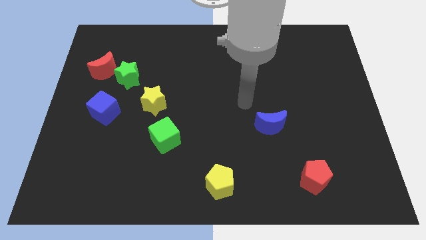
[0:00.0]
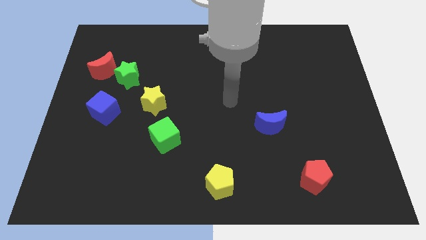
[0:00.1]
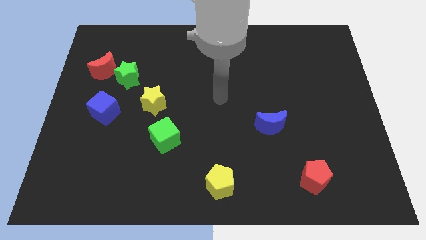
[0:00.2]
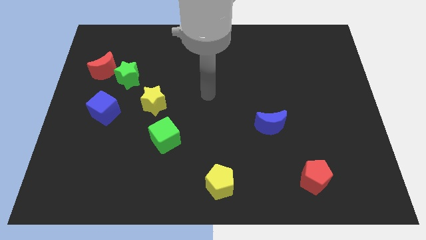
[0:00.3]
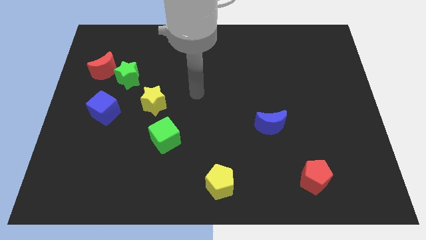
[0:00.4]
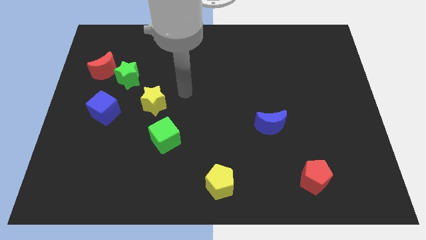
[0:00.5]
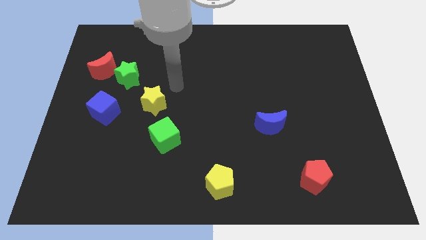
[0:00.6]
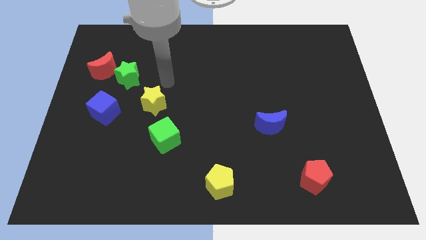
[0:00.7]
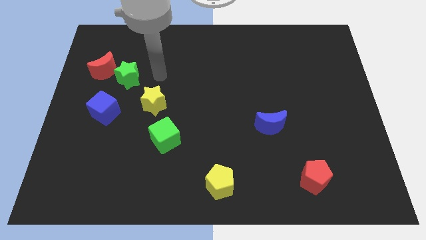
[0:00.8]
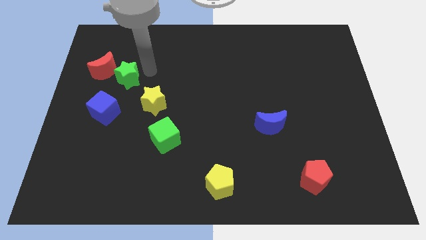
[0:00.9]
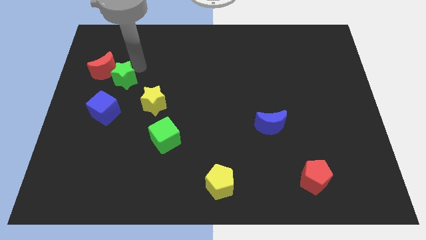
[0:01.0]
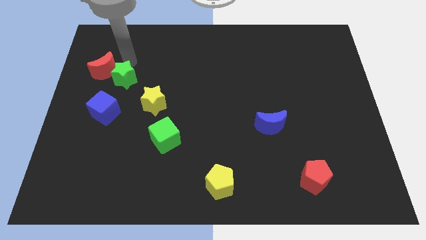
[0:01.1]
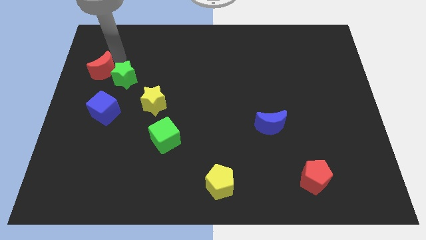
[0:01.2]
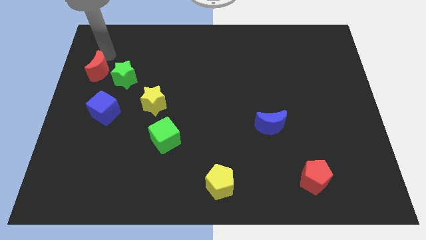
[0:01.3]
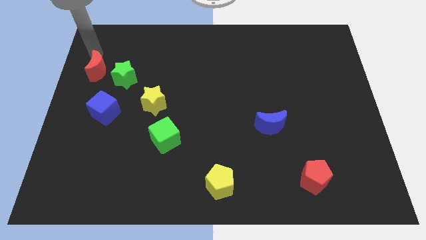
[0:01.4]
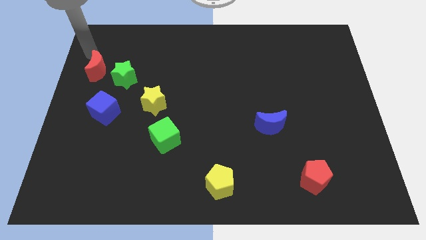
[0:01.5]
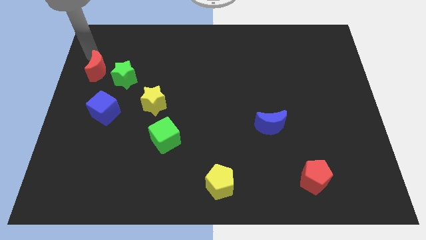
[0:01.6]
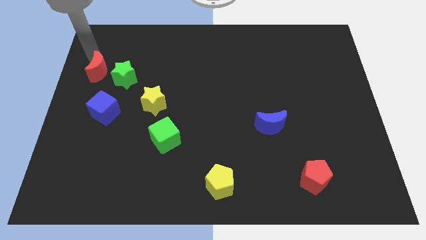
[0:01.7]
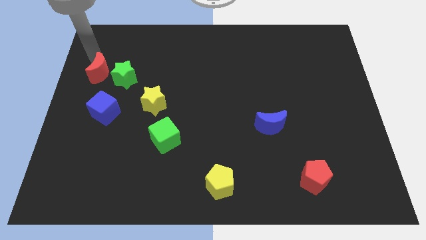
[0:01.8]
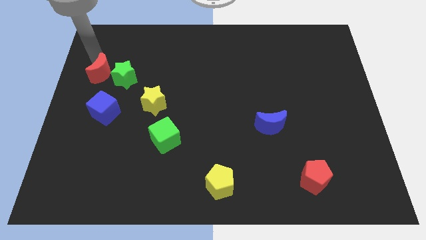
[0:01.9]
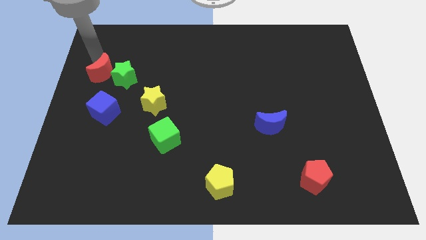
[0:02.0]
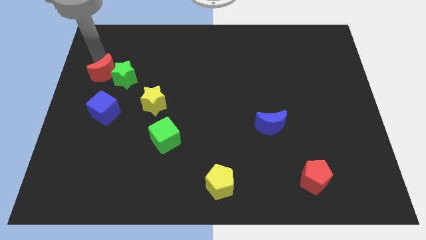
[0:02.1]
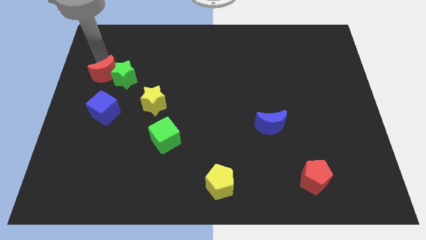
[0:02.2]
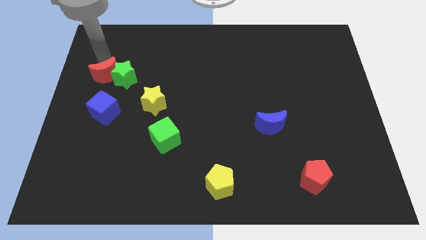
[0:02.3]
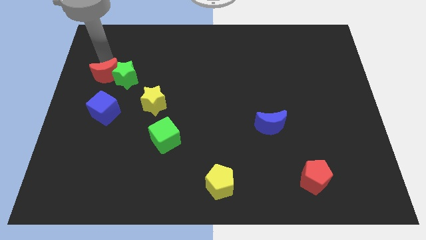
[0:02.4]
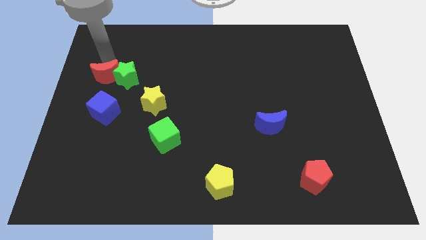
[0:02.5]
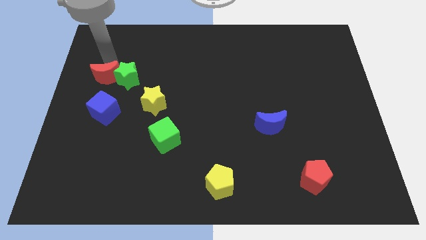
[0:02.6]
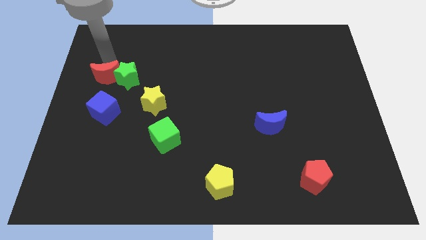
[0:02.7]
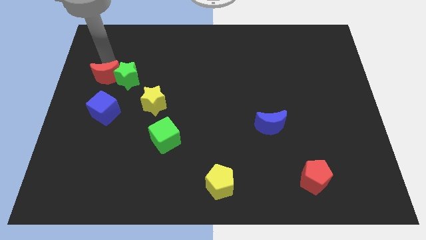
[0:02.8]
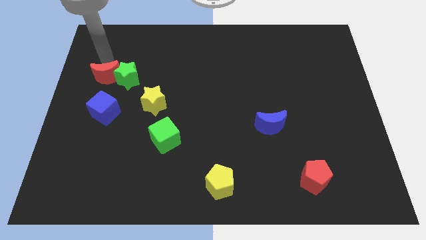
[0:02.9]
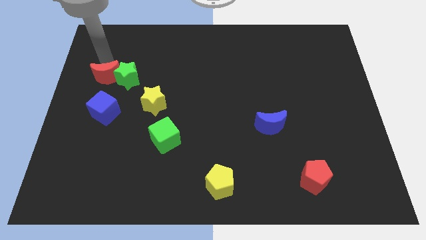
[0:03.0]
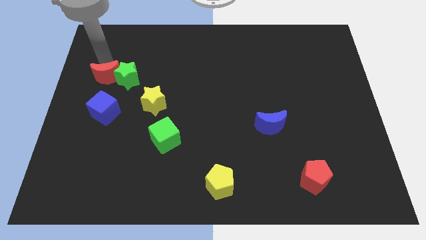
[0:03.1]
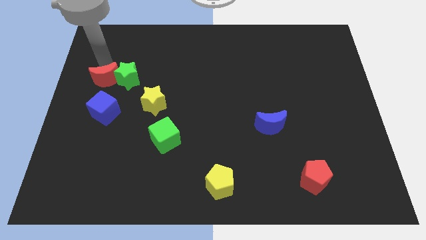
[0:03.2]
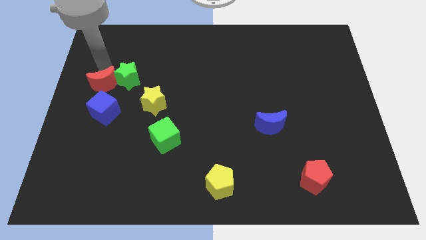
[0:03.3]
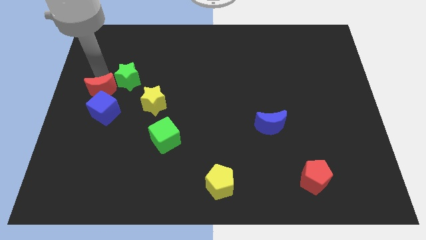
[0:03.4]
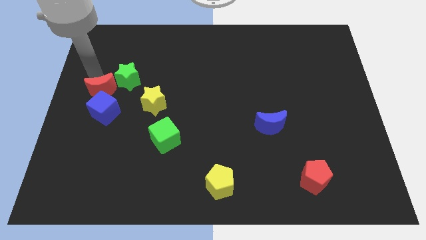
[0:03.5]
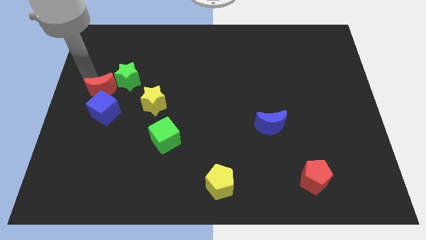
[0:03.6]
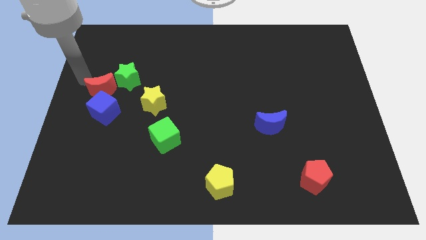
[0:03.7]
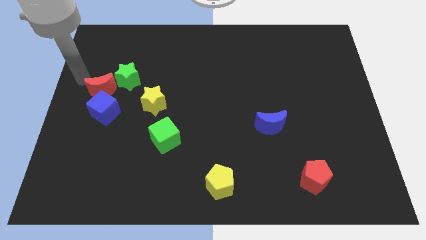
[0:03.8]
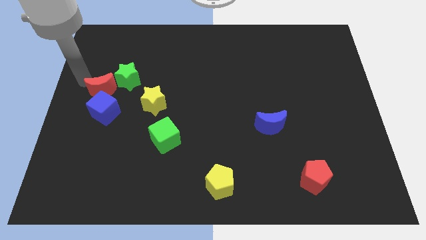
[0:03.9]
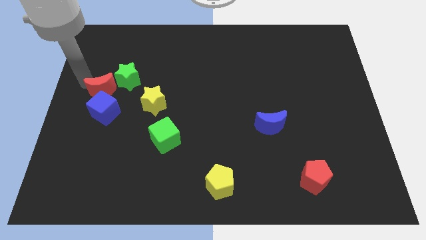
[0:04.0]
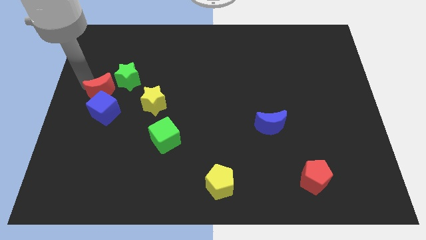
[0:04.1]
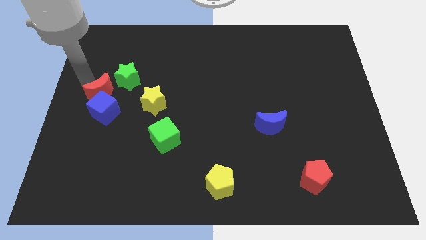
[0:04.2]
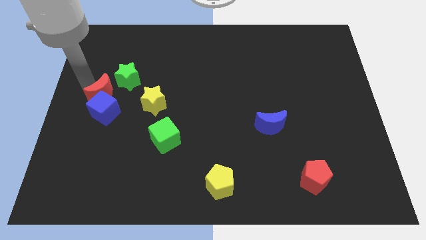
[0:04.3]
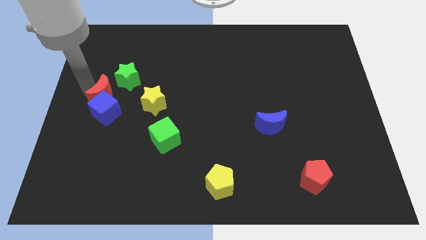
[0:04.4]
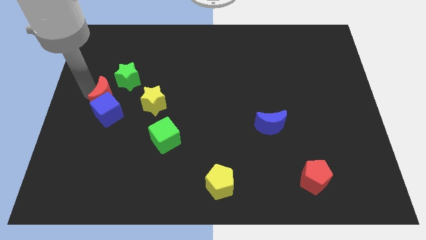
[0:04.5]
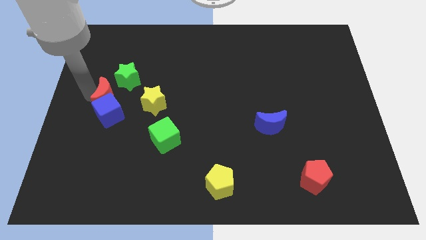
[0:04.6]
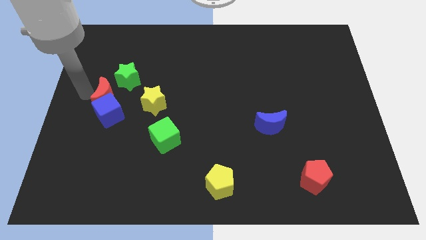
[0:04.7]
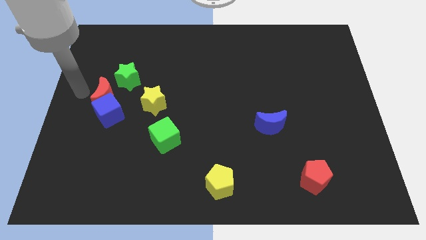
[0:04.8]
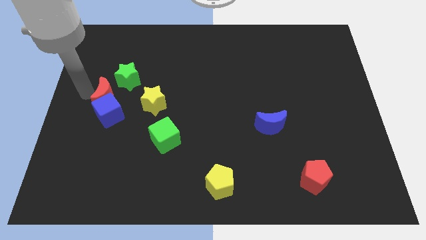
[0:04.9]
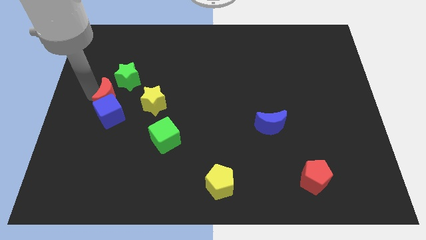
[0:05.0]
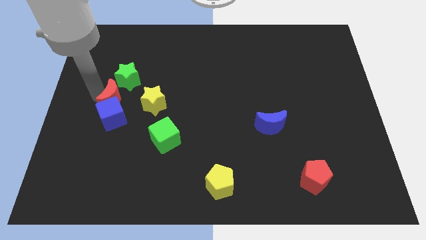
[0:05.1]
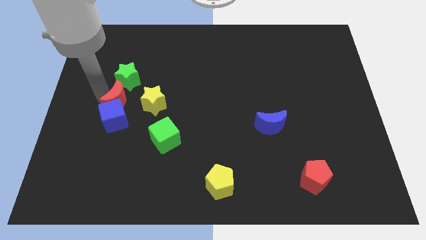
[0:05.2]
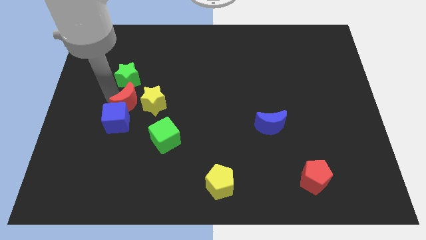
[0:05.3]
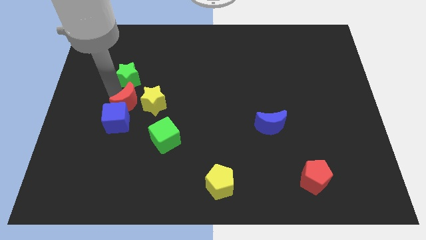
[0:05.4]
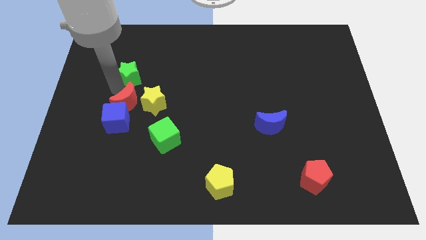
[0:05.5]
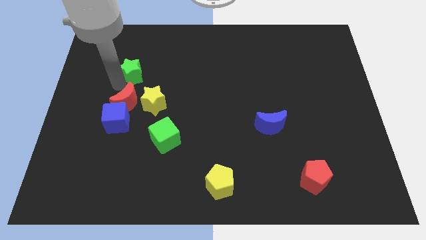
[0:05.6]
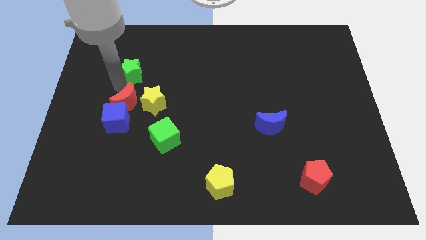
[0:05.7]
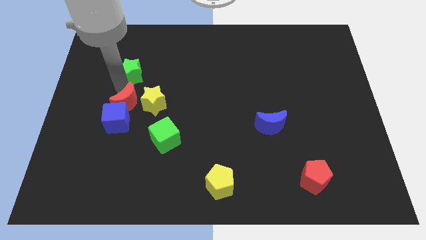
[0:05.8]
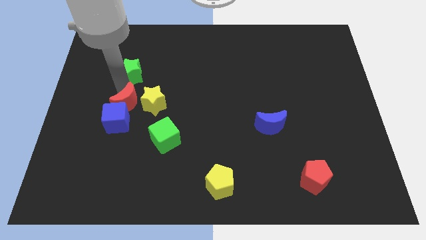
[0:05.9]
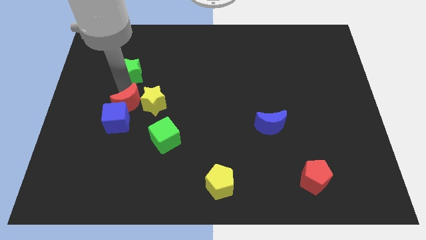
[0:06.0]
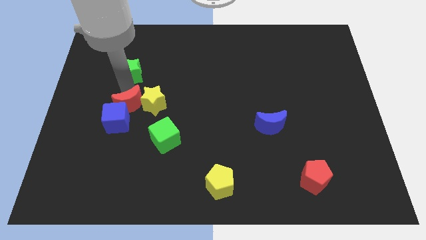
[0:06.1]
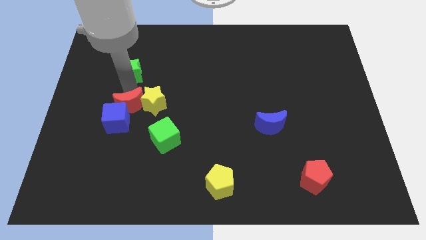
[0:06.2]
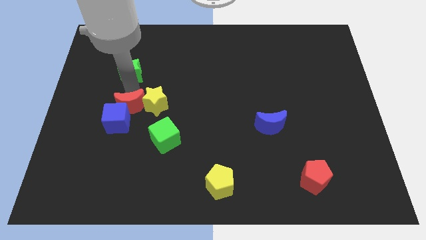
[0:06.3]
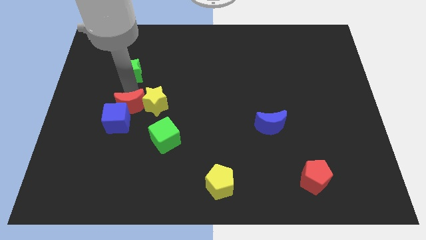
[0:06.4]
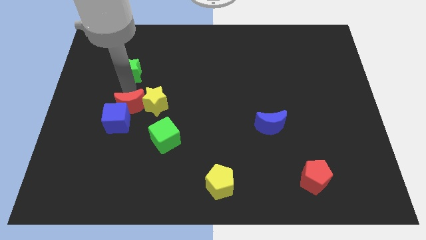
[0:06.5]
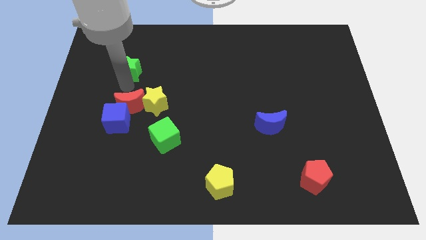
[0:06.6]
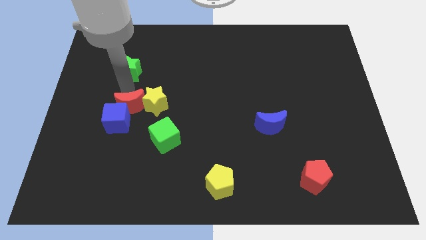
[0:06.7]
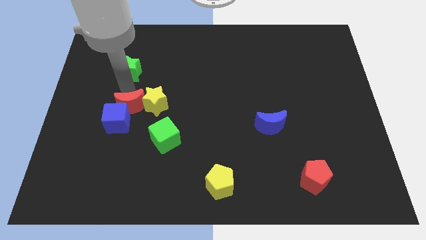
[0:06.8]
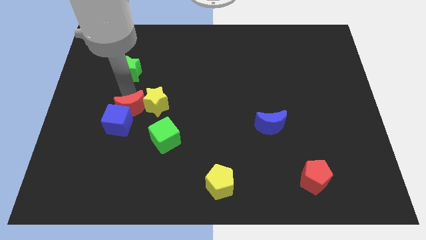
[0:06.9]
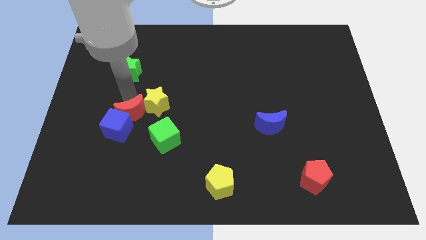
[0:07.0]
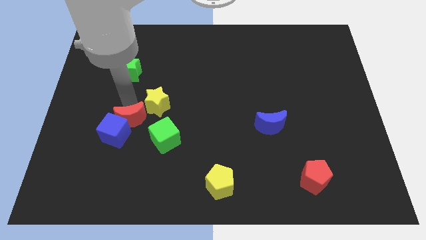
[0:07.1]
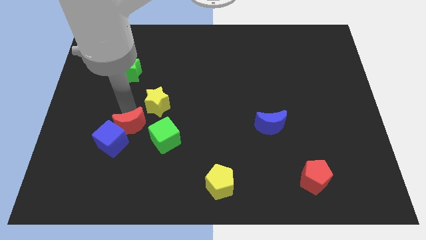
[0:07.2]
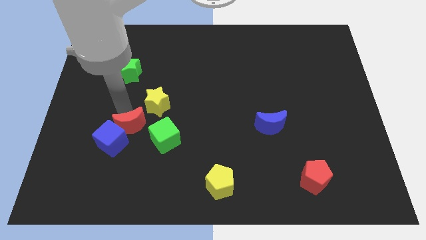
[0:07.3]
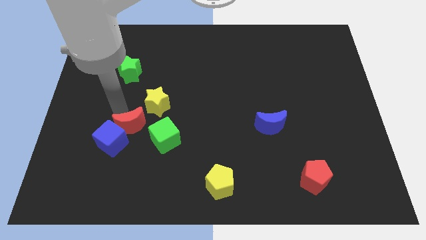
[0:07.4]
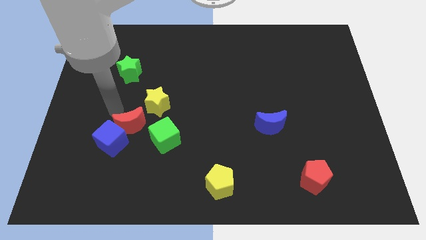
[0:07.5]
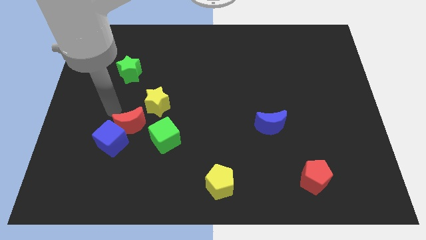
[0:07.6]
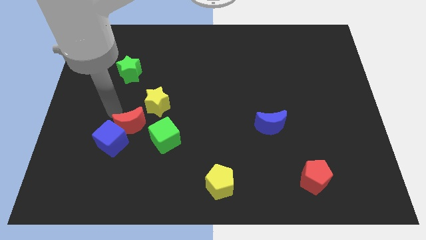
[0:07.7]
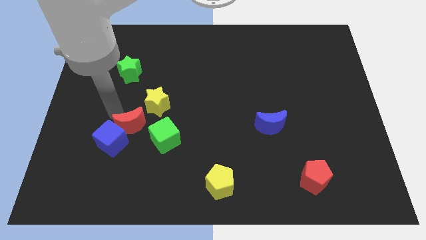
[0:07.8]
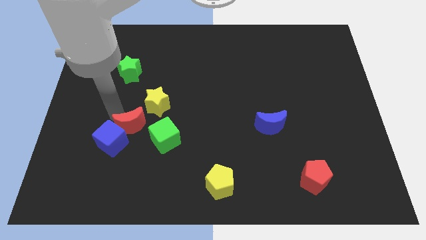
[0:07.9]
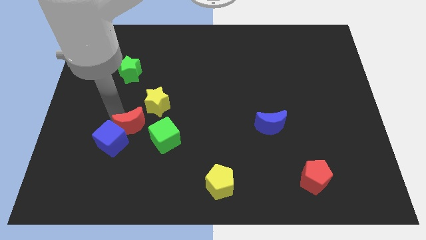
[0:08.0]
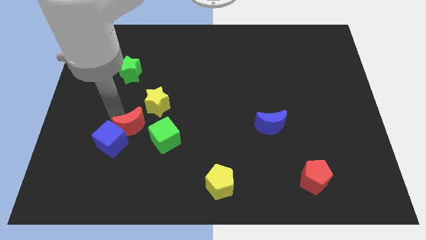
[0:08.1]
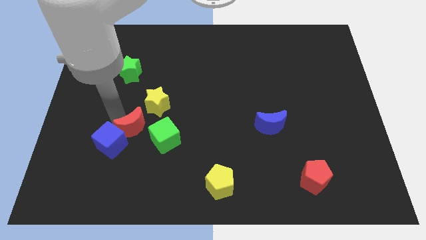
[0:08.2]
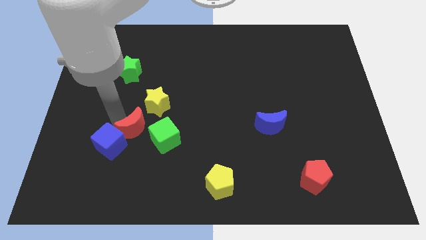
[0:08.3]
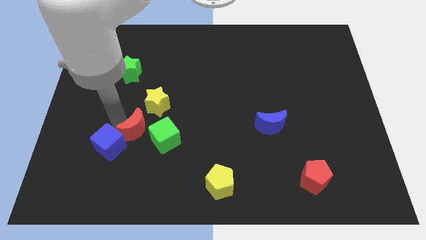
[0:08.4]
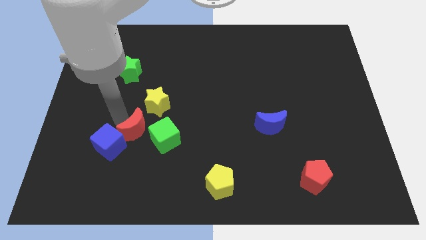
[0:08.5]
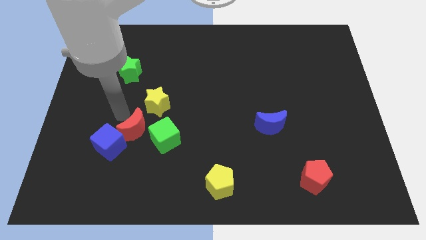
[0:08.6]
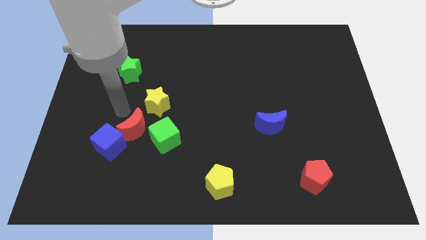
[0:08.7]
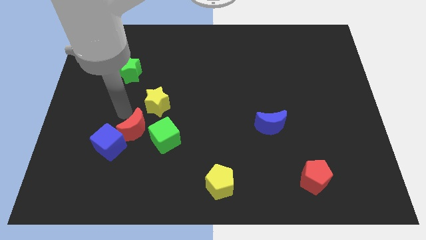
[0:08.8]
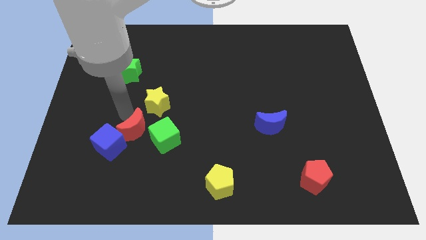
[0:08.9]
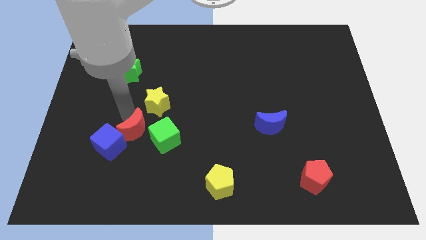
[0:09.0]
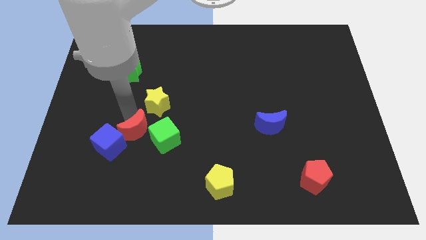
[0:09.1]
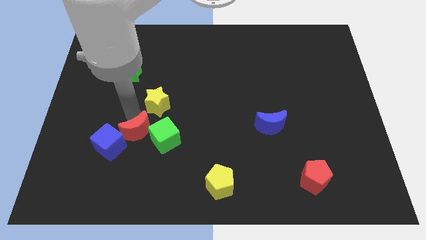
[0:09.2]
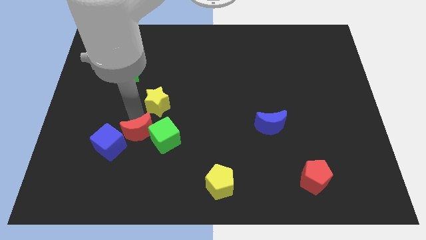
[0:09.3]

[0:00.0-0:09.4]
move the red moon diagonally downwards and right
